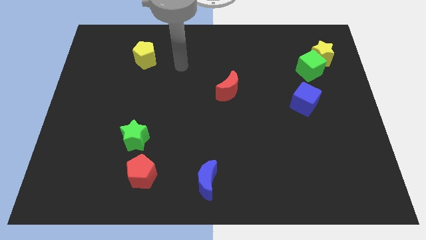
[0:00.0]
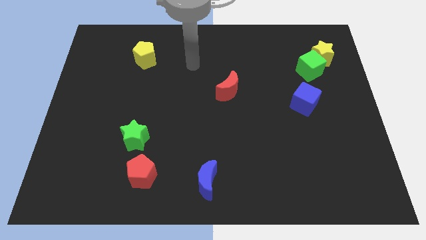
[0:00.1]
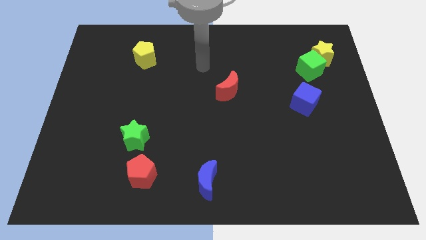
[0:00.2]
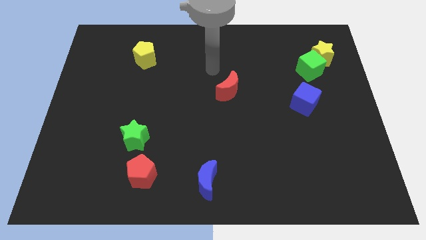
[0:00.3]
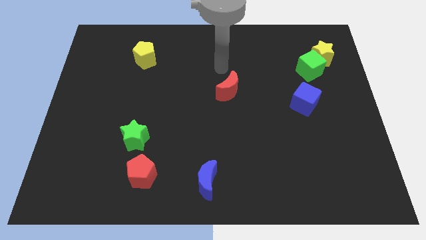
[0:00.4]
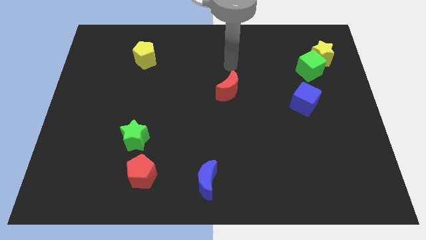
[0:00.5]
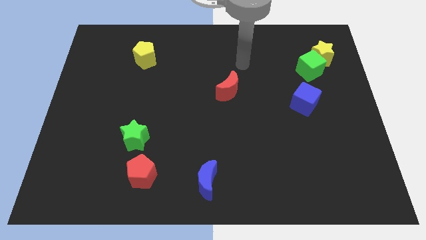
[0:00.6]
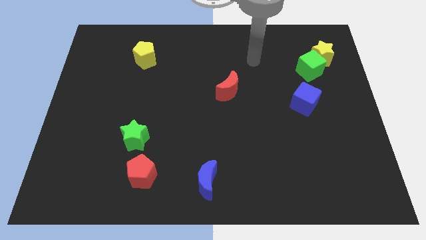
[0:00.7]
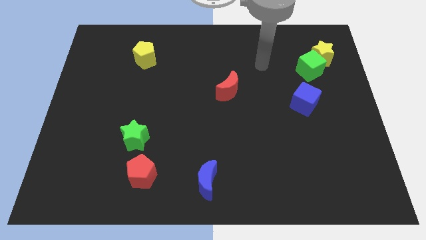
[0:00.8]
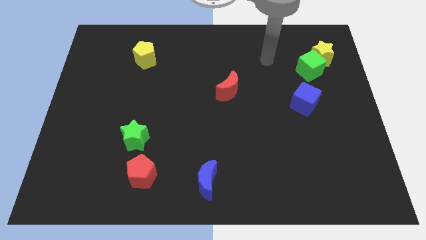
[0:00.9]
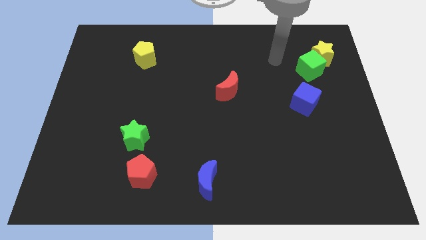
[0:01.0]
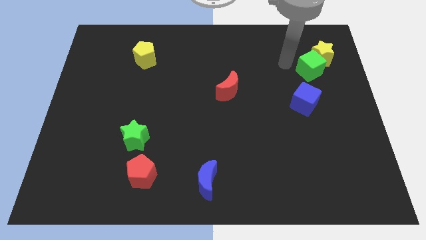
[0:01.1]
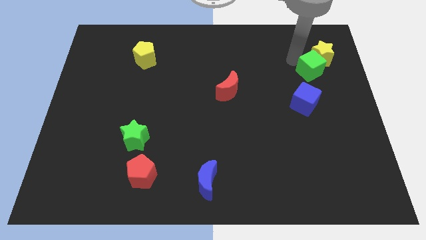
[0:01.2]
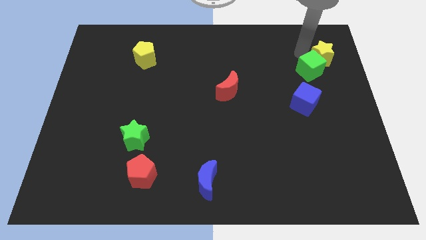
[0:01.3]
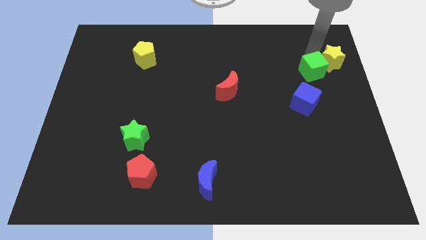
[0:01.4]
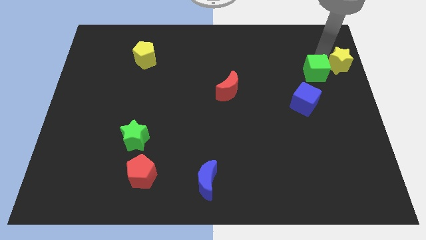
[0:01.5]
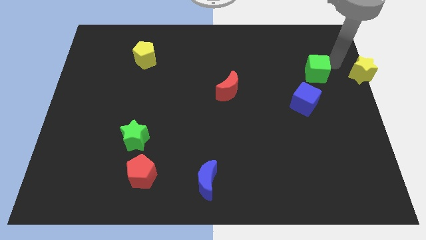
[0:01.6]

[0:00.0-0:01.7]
separate the green cube from the yellow star

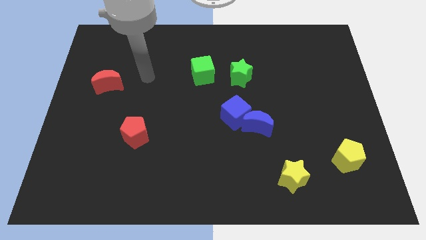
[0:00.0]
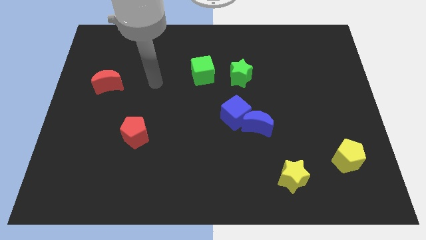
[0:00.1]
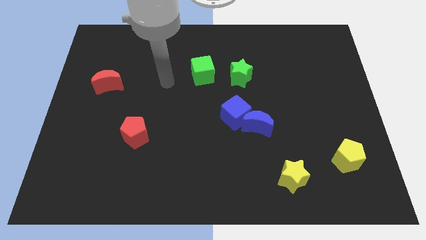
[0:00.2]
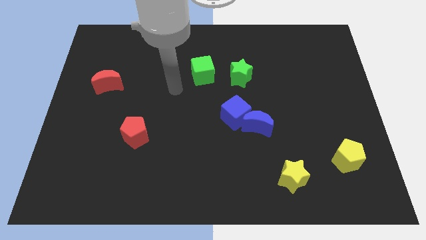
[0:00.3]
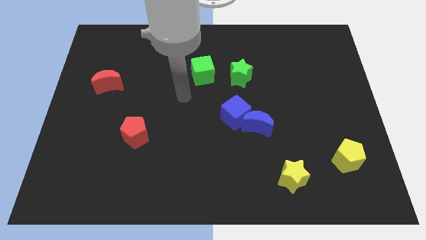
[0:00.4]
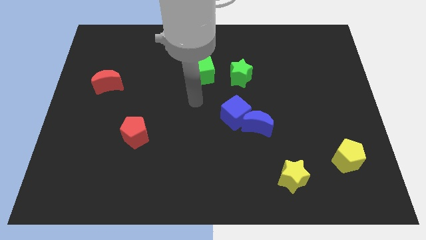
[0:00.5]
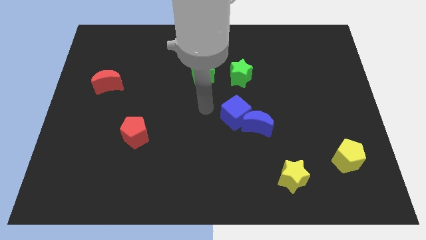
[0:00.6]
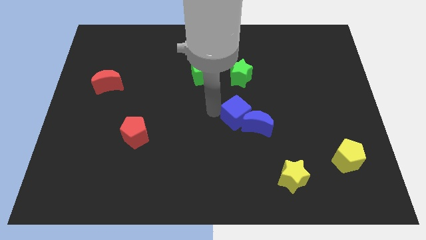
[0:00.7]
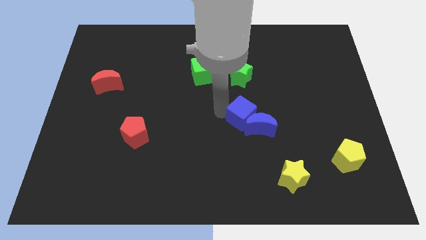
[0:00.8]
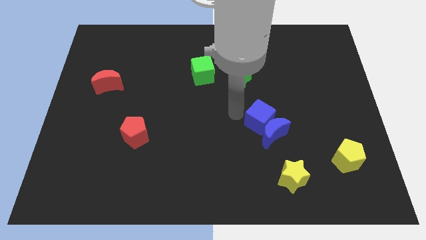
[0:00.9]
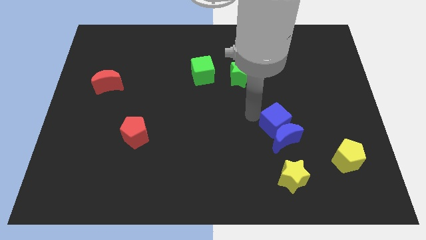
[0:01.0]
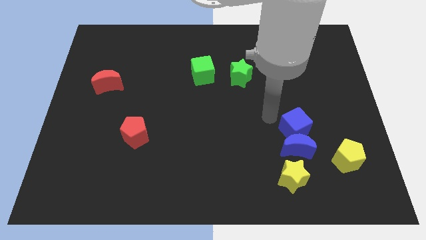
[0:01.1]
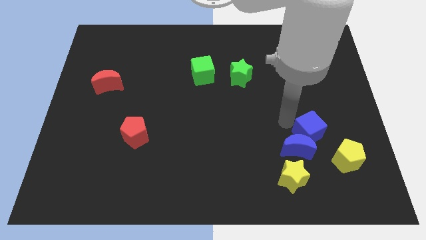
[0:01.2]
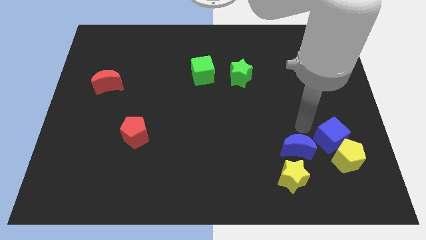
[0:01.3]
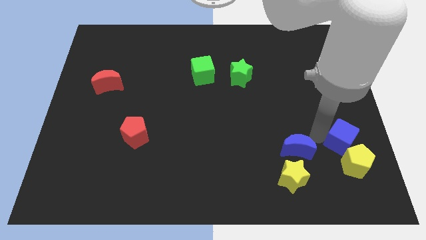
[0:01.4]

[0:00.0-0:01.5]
separate the blue moon from the blue cube

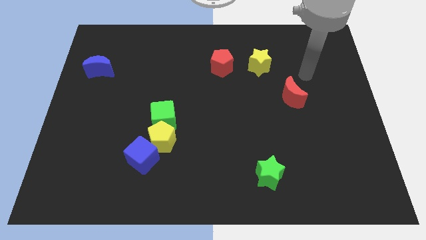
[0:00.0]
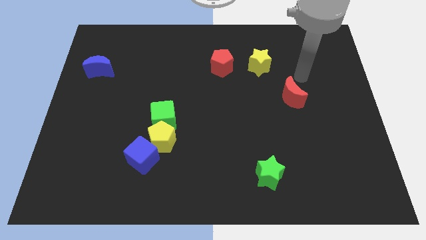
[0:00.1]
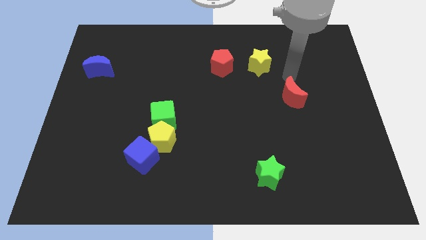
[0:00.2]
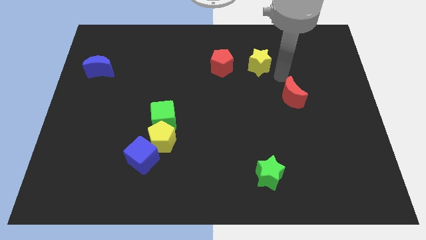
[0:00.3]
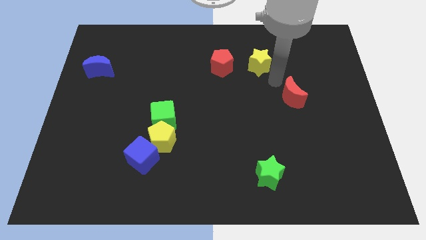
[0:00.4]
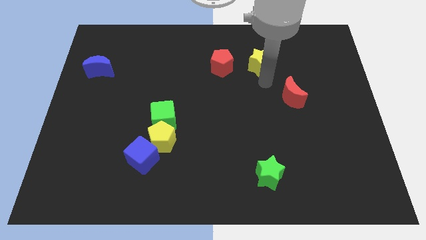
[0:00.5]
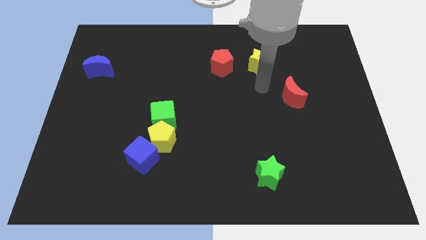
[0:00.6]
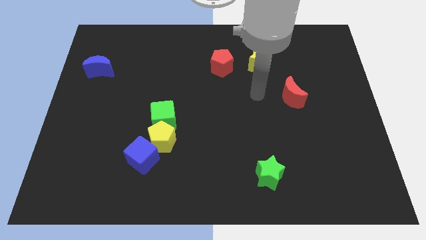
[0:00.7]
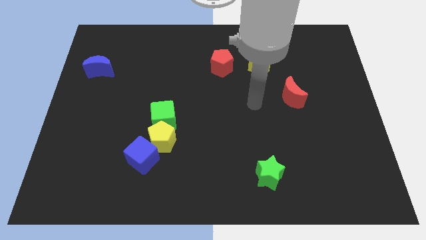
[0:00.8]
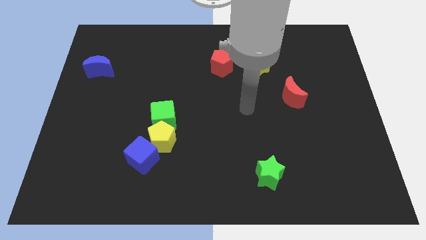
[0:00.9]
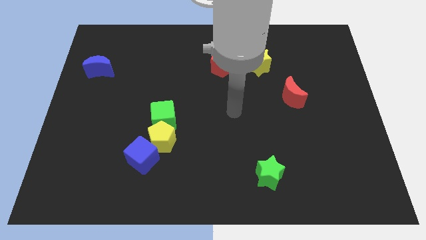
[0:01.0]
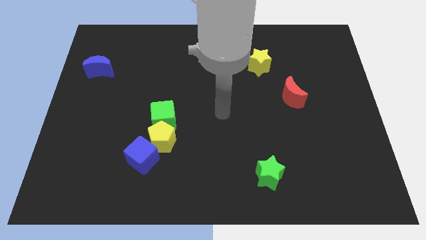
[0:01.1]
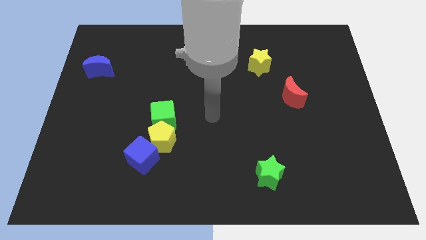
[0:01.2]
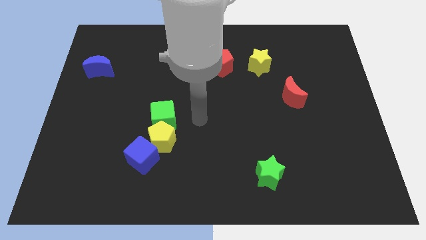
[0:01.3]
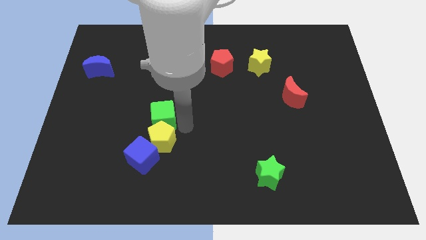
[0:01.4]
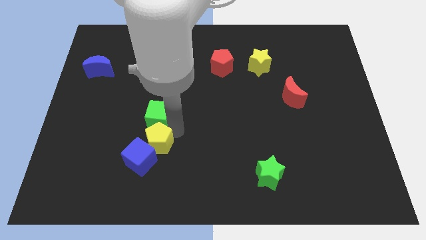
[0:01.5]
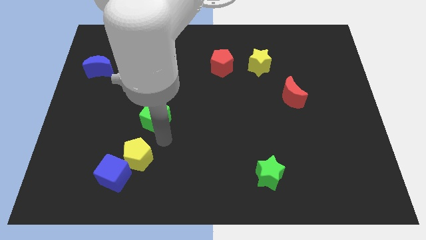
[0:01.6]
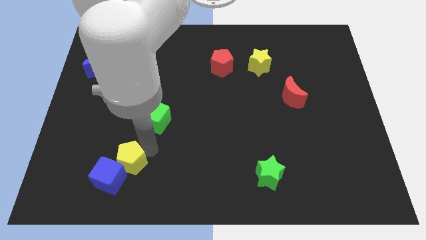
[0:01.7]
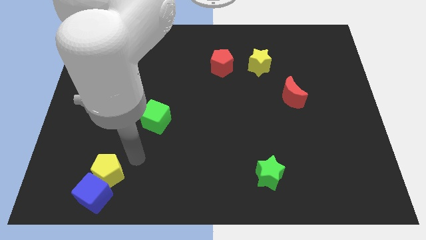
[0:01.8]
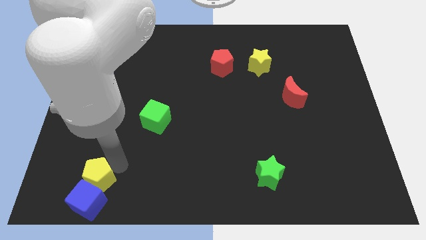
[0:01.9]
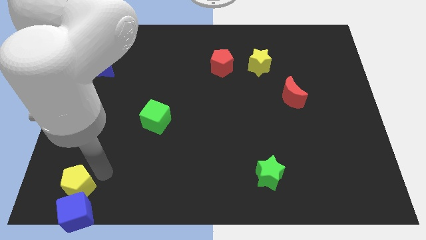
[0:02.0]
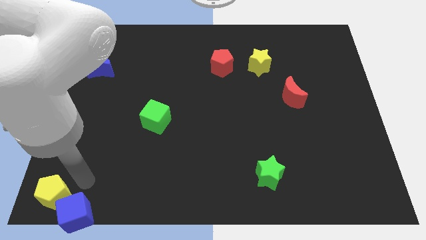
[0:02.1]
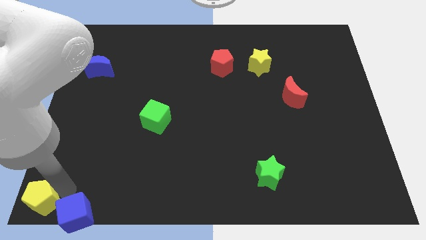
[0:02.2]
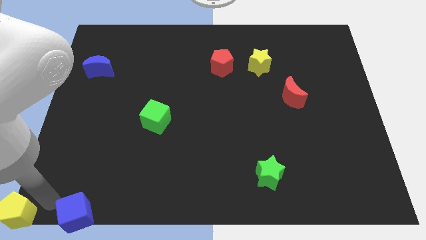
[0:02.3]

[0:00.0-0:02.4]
separate the blue cube from the yellow pentagon

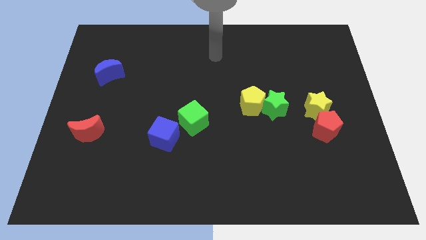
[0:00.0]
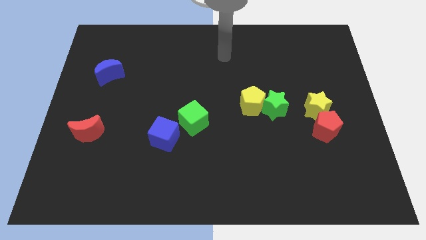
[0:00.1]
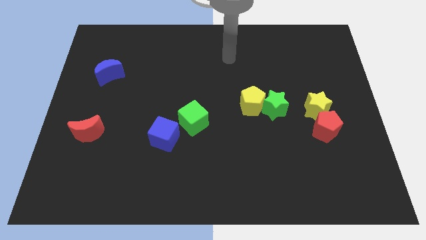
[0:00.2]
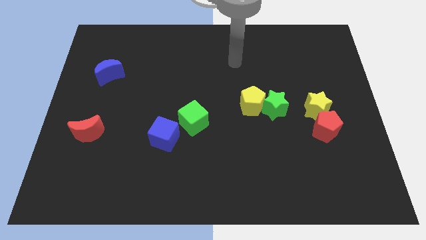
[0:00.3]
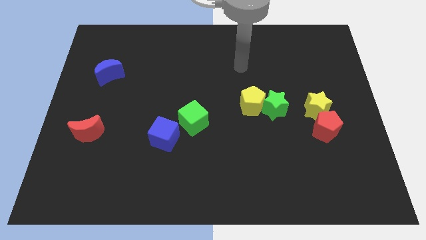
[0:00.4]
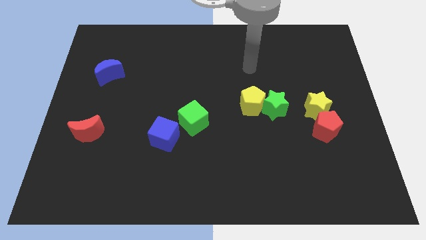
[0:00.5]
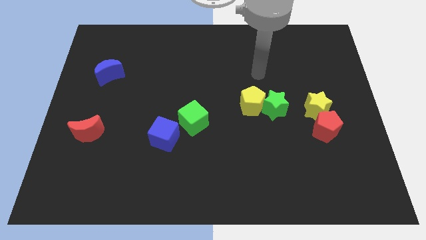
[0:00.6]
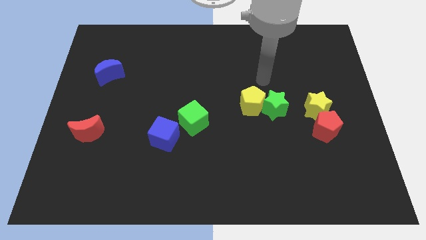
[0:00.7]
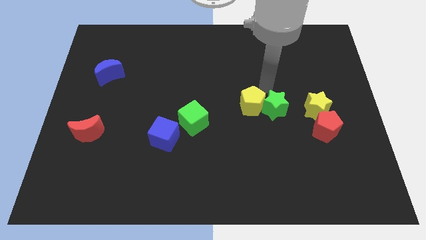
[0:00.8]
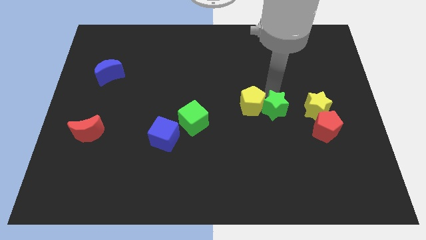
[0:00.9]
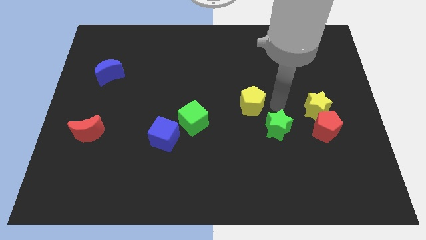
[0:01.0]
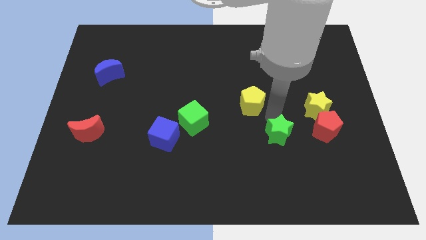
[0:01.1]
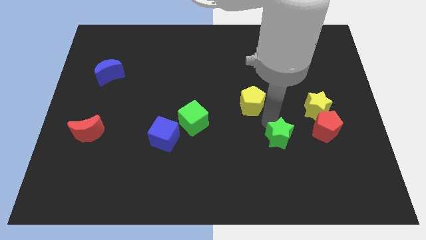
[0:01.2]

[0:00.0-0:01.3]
move the yellow pentagon away from the green star

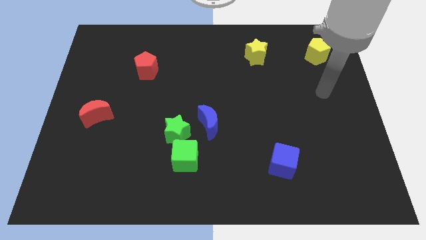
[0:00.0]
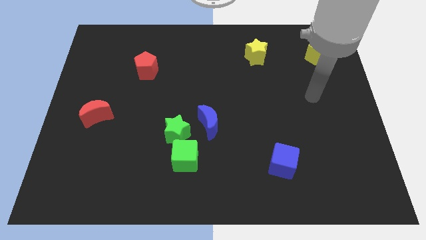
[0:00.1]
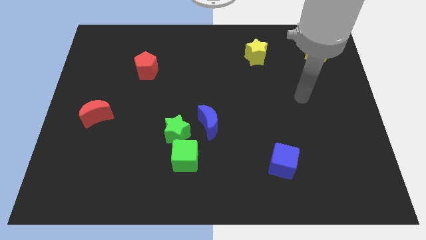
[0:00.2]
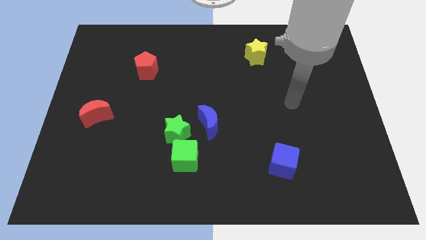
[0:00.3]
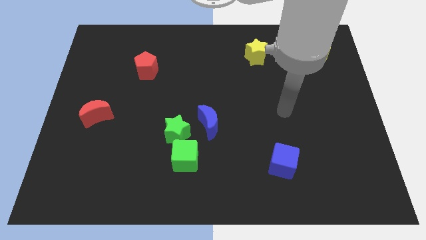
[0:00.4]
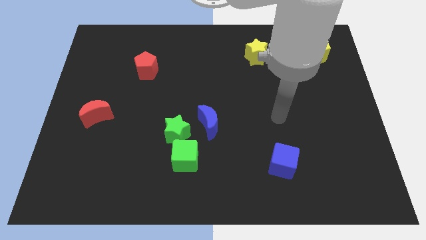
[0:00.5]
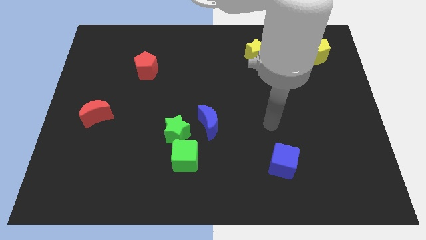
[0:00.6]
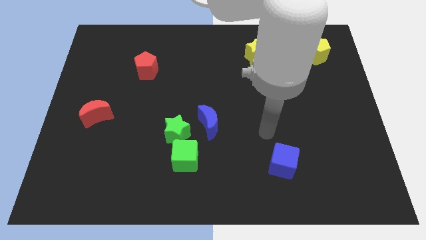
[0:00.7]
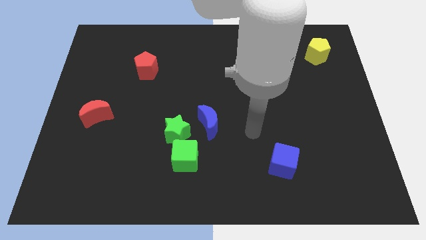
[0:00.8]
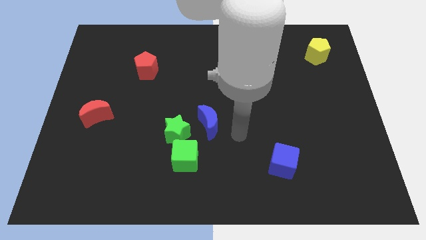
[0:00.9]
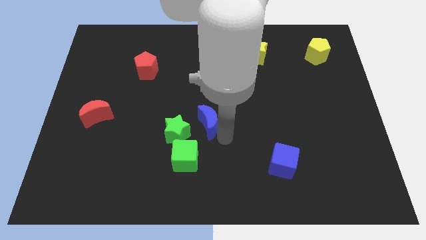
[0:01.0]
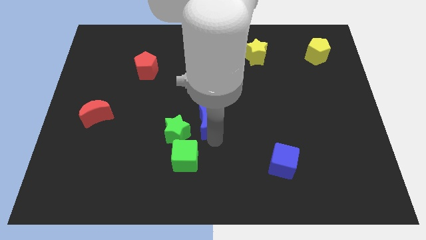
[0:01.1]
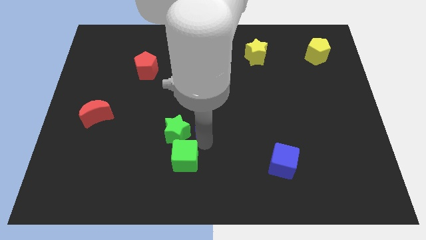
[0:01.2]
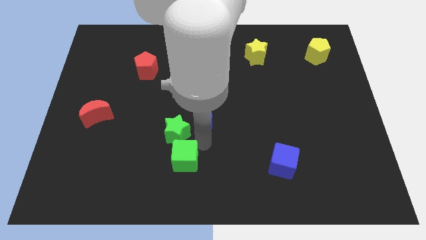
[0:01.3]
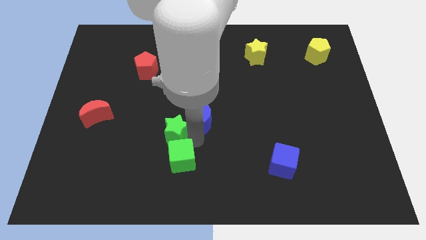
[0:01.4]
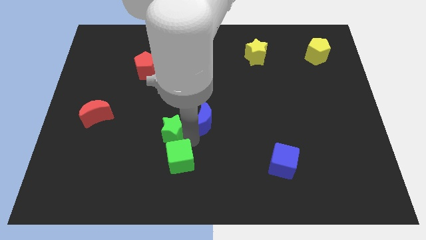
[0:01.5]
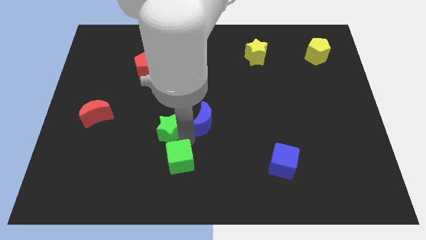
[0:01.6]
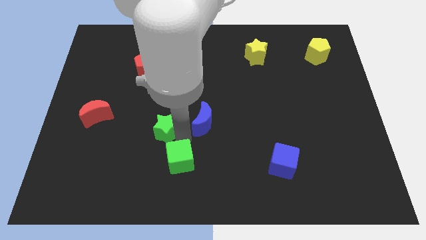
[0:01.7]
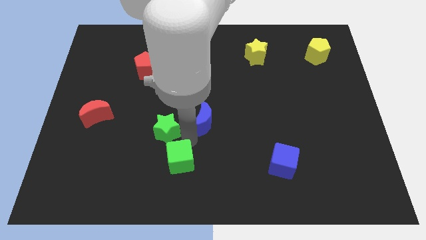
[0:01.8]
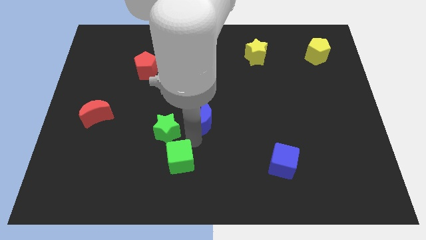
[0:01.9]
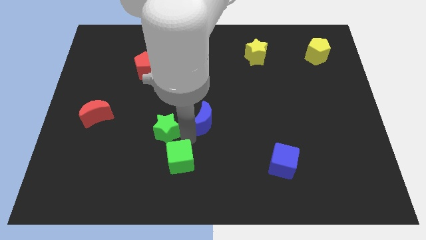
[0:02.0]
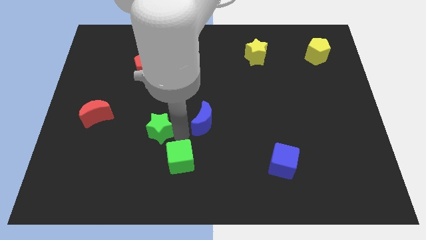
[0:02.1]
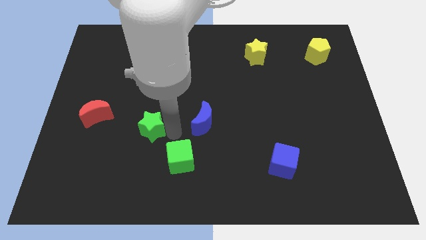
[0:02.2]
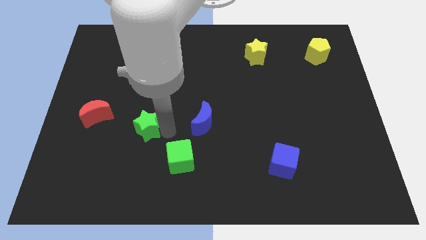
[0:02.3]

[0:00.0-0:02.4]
separate the green star from the green cube and blue moon

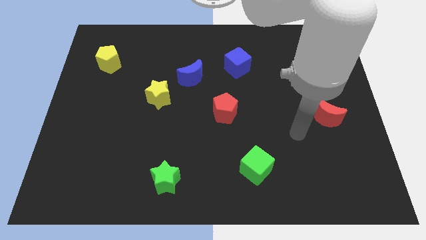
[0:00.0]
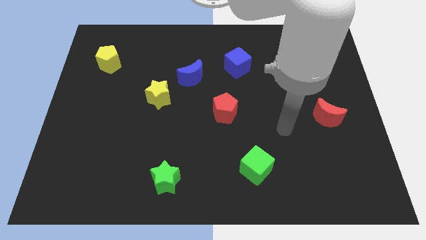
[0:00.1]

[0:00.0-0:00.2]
separate the blue moon from the yellow star
